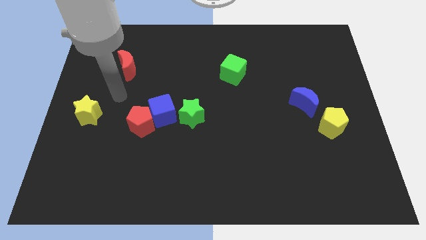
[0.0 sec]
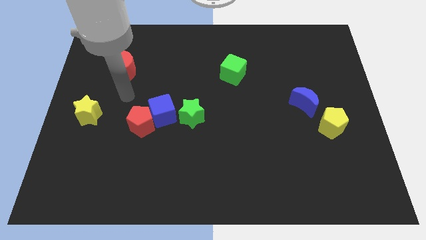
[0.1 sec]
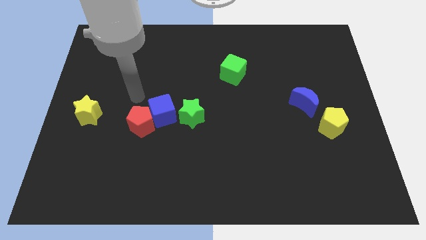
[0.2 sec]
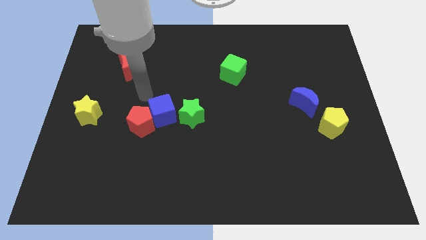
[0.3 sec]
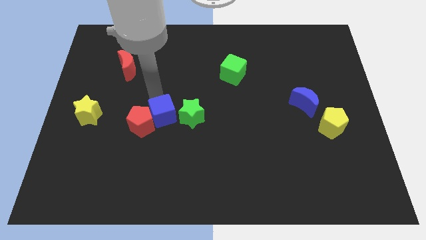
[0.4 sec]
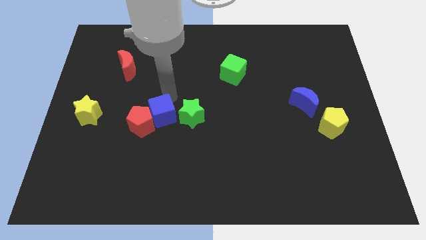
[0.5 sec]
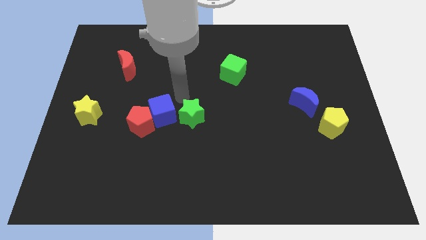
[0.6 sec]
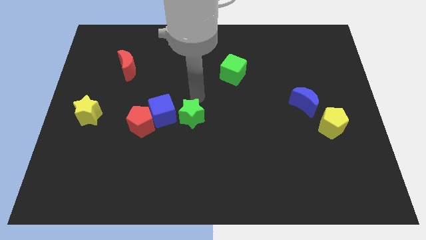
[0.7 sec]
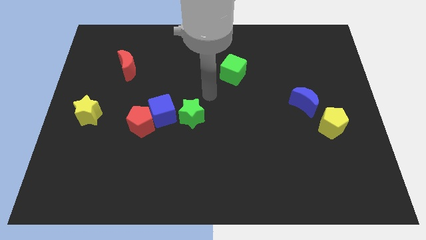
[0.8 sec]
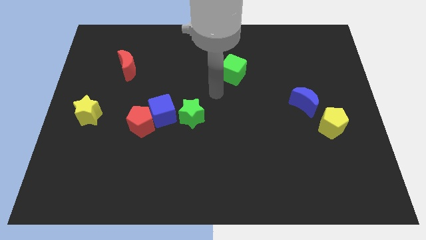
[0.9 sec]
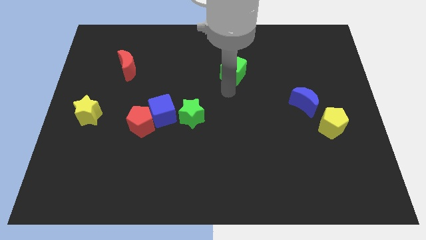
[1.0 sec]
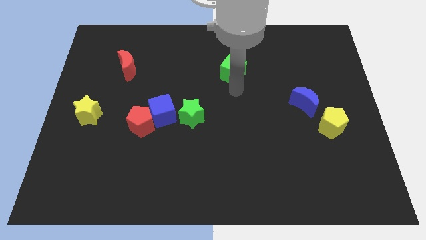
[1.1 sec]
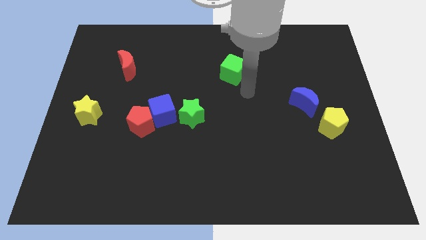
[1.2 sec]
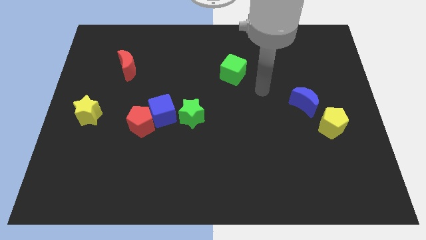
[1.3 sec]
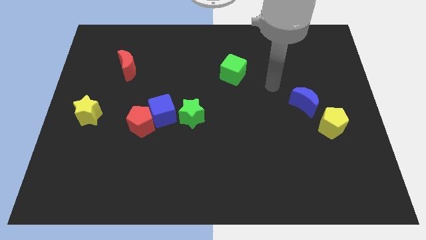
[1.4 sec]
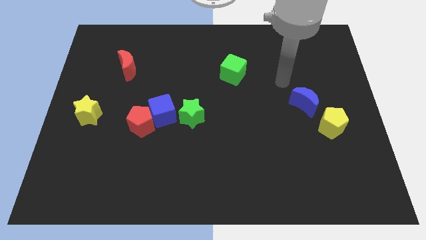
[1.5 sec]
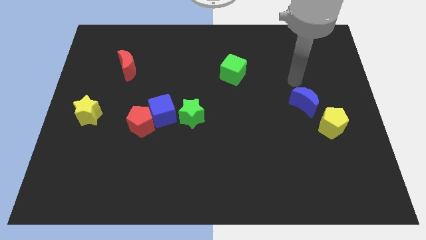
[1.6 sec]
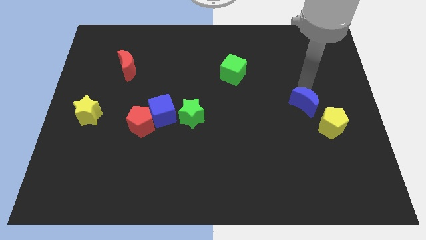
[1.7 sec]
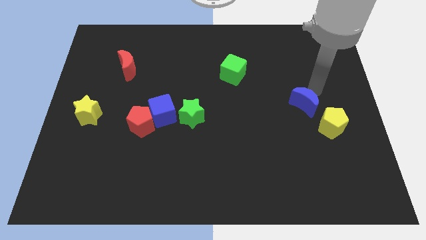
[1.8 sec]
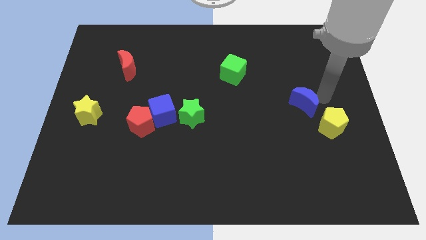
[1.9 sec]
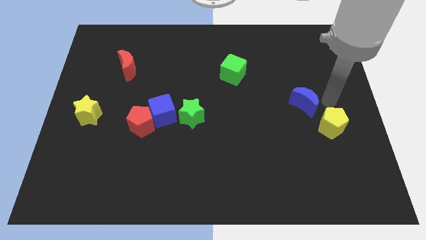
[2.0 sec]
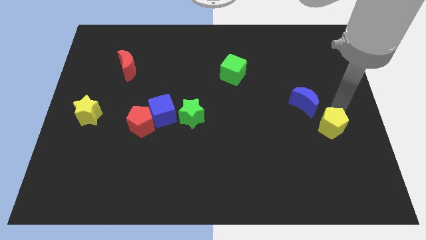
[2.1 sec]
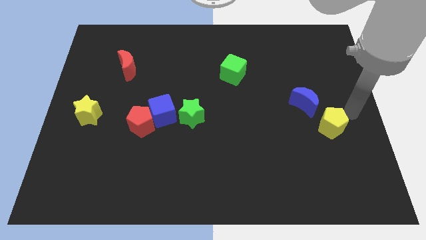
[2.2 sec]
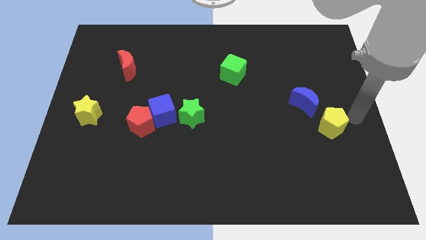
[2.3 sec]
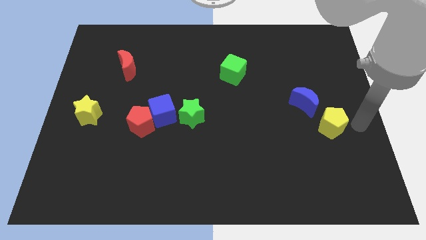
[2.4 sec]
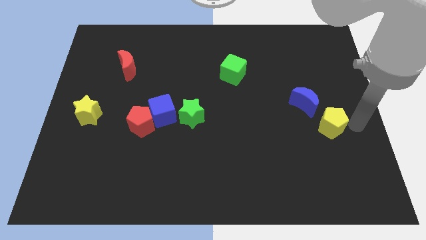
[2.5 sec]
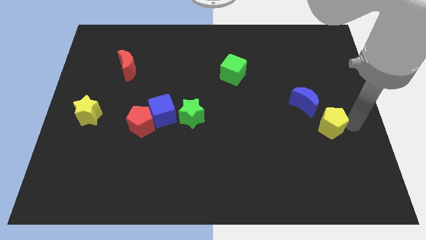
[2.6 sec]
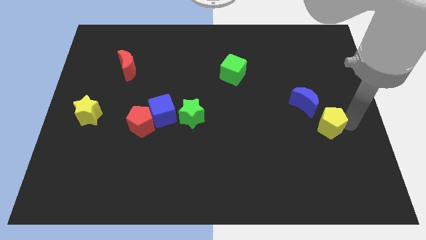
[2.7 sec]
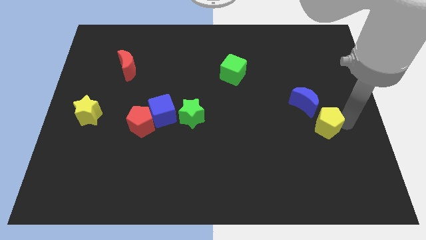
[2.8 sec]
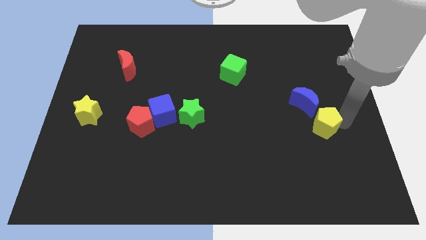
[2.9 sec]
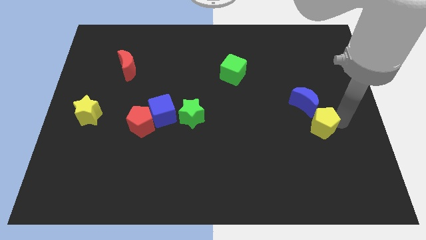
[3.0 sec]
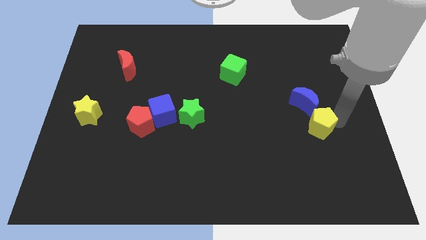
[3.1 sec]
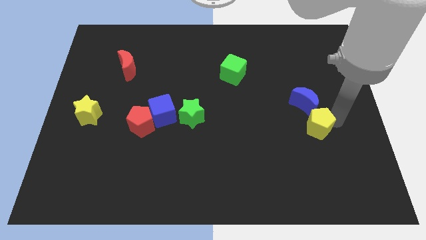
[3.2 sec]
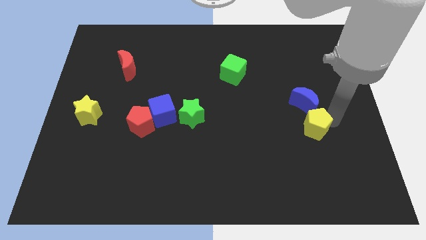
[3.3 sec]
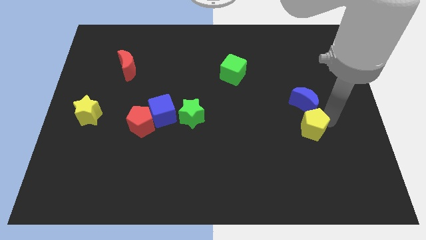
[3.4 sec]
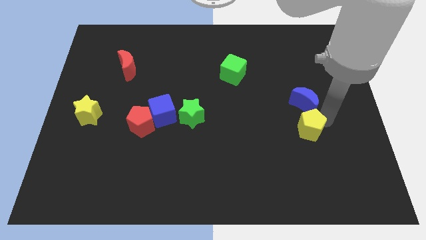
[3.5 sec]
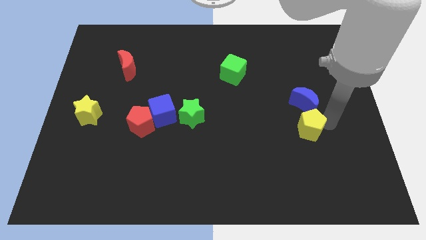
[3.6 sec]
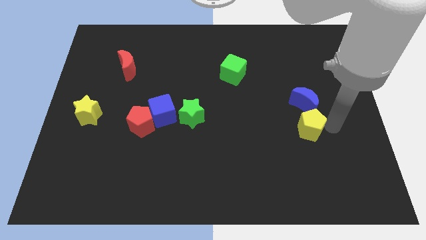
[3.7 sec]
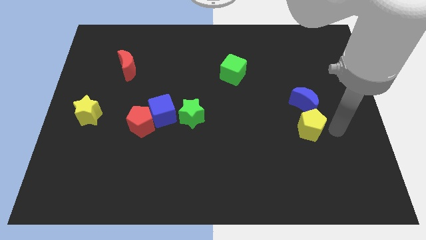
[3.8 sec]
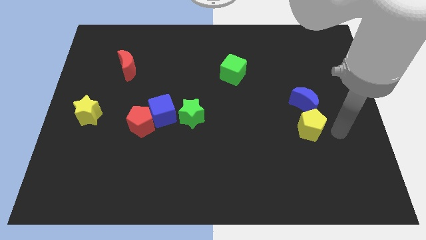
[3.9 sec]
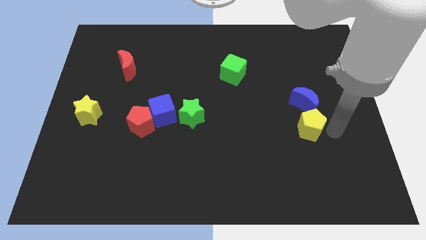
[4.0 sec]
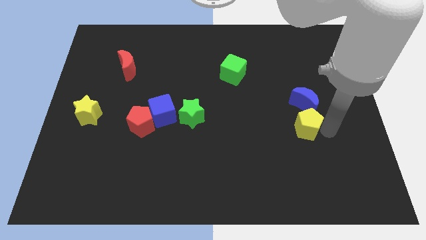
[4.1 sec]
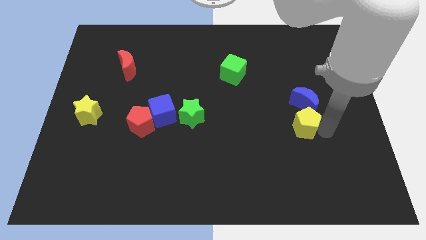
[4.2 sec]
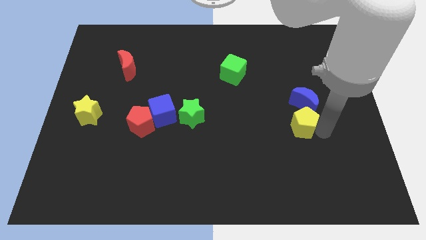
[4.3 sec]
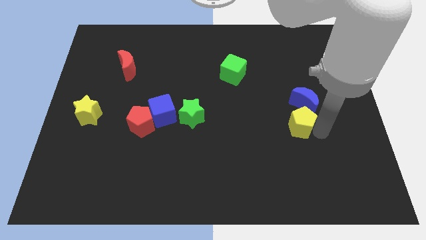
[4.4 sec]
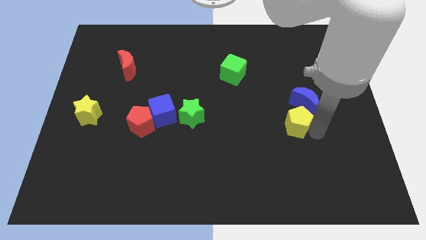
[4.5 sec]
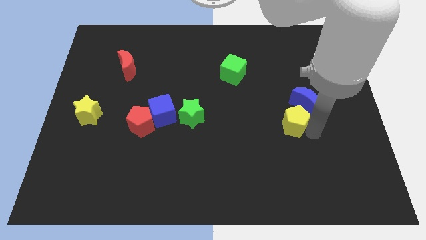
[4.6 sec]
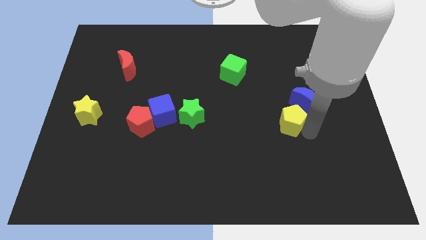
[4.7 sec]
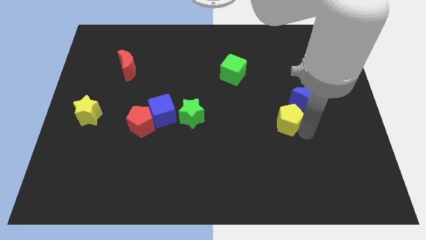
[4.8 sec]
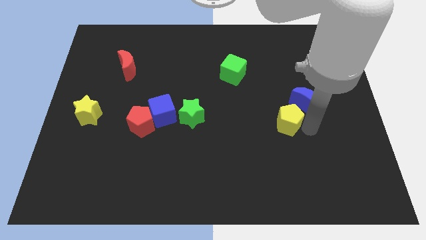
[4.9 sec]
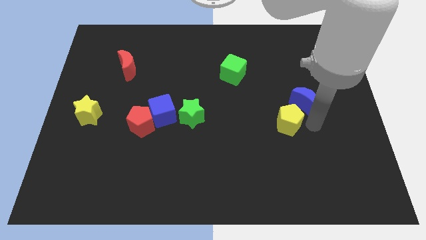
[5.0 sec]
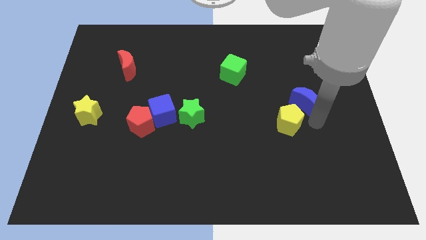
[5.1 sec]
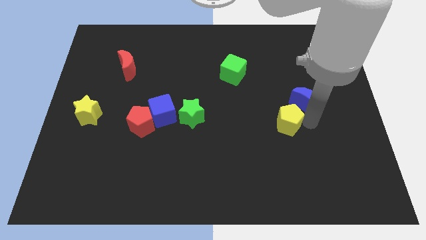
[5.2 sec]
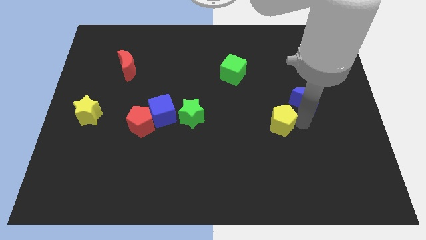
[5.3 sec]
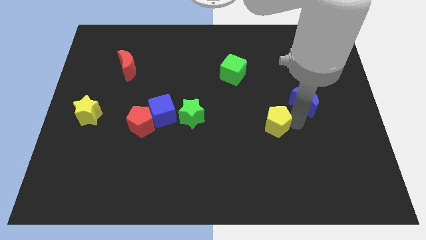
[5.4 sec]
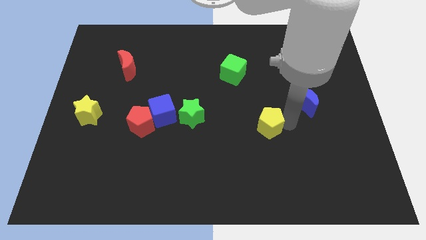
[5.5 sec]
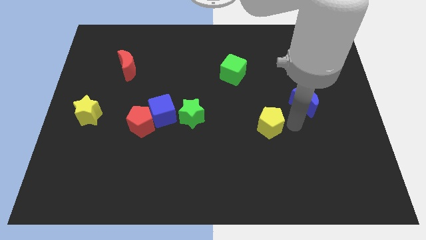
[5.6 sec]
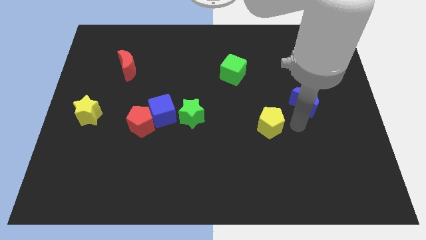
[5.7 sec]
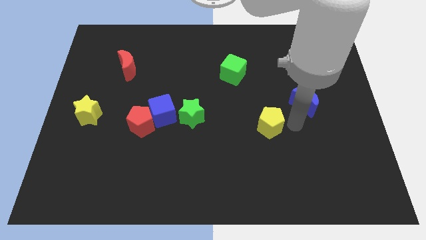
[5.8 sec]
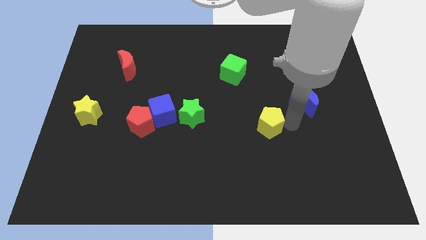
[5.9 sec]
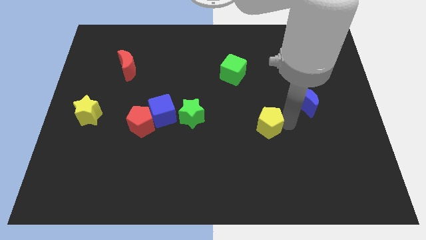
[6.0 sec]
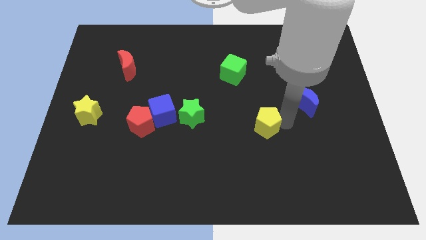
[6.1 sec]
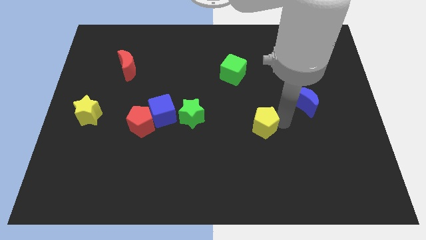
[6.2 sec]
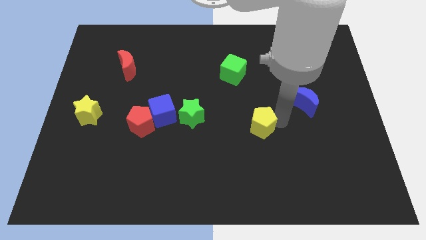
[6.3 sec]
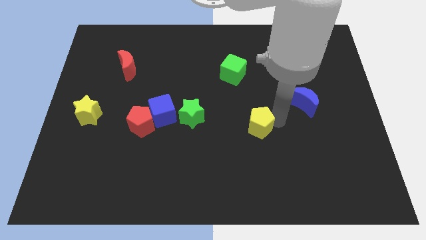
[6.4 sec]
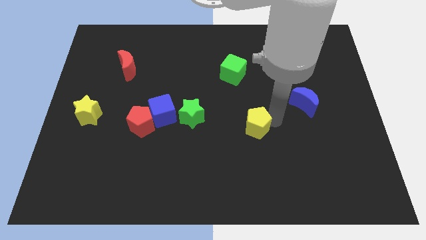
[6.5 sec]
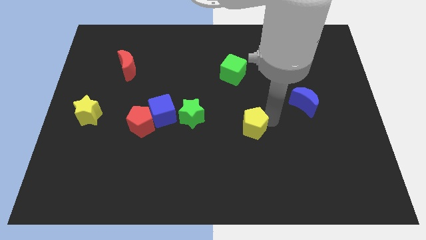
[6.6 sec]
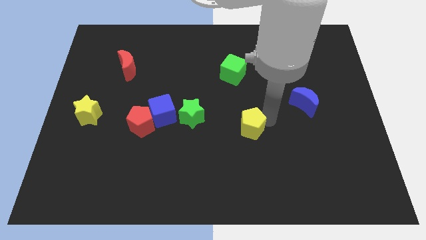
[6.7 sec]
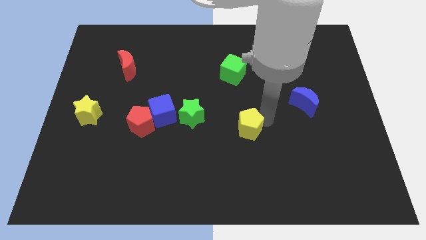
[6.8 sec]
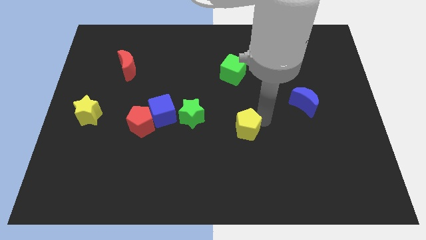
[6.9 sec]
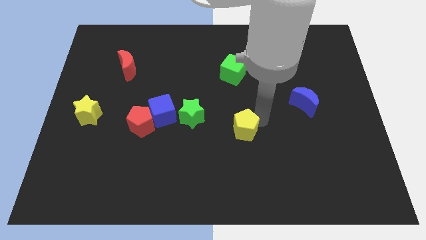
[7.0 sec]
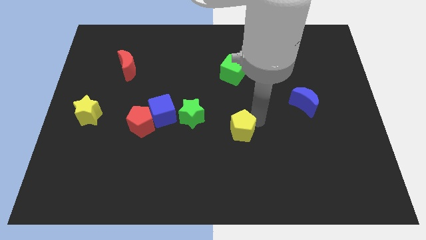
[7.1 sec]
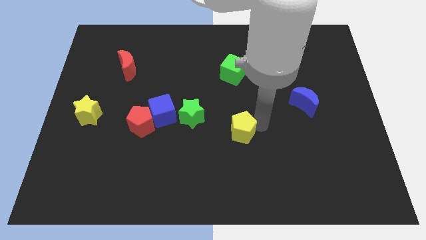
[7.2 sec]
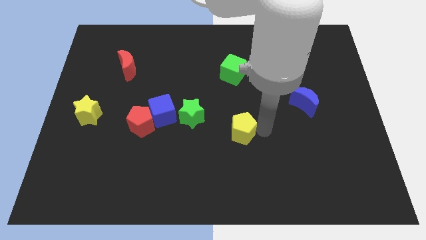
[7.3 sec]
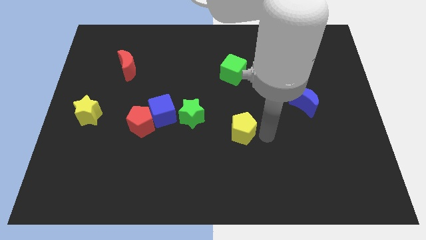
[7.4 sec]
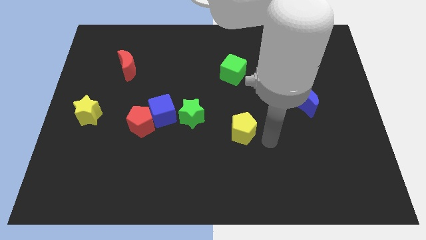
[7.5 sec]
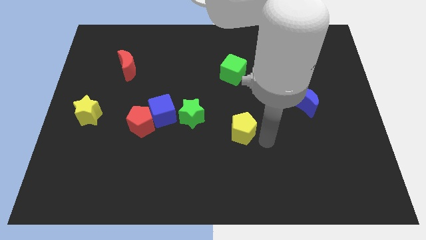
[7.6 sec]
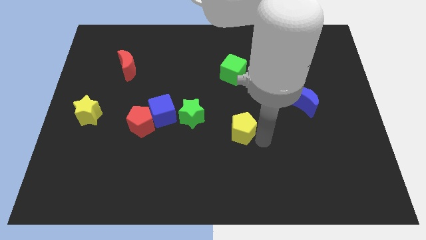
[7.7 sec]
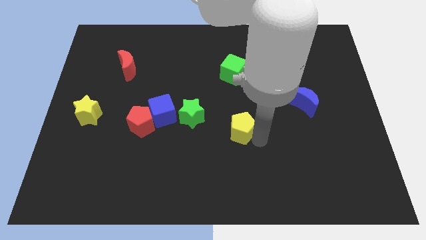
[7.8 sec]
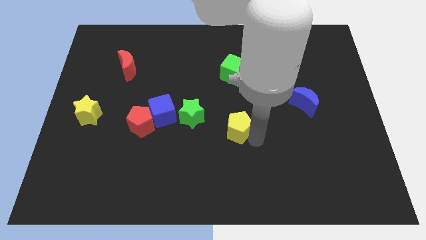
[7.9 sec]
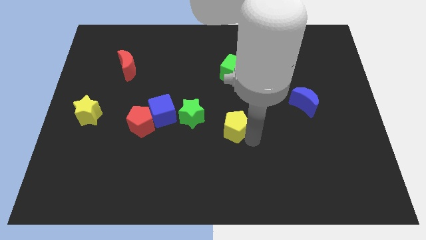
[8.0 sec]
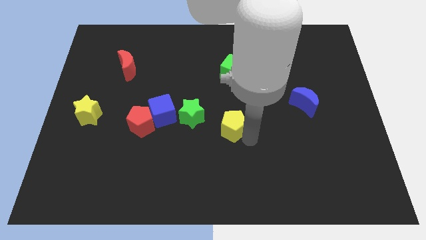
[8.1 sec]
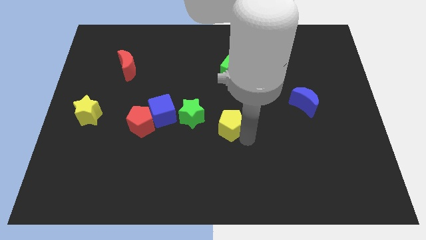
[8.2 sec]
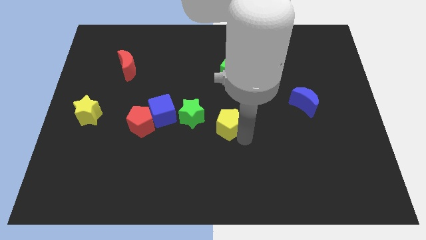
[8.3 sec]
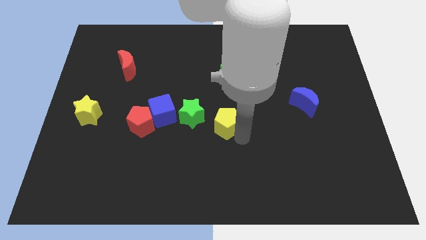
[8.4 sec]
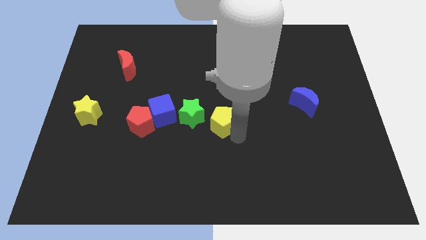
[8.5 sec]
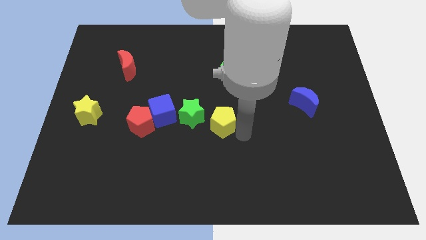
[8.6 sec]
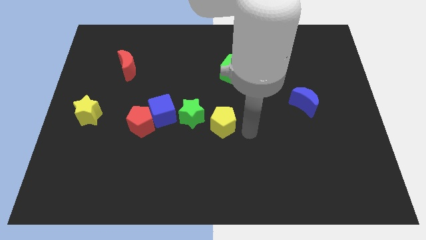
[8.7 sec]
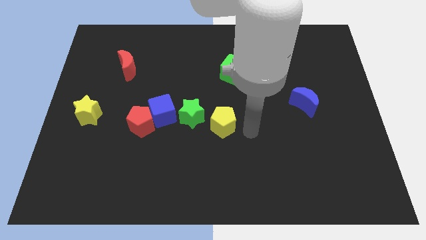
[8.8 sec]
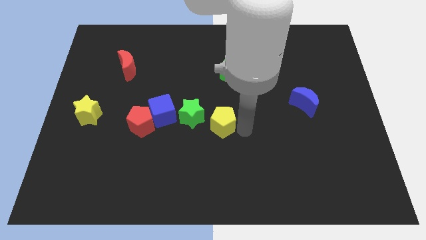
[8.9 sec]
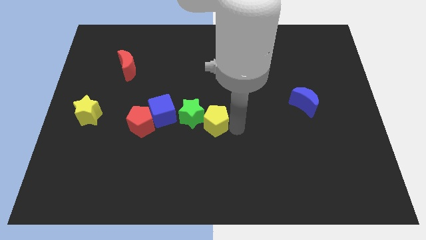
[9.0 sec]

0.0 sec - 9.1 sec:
push the yellow pentagon close to the green star
